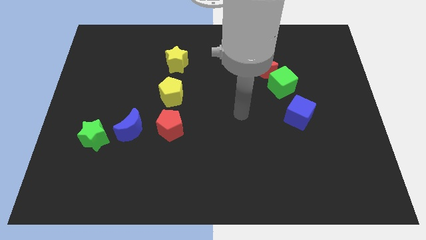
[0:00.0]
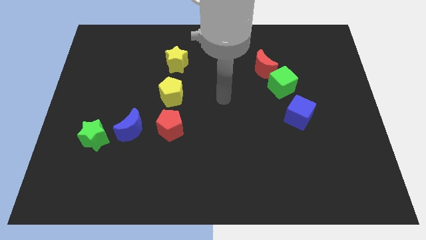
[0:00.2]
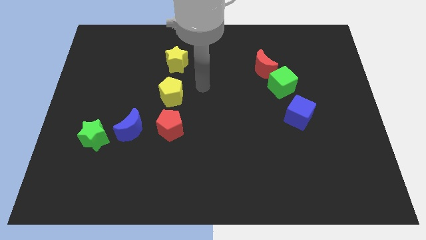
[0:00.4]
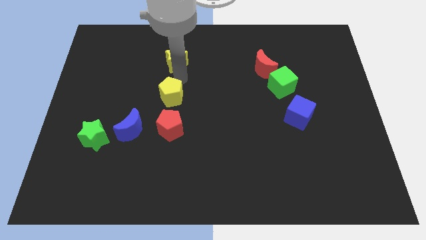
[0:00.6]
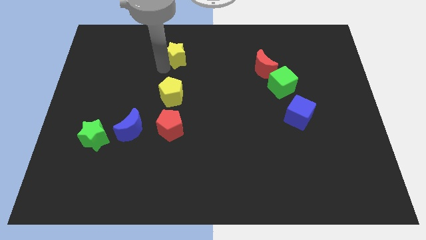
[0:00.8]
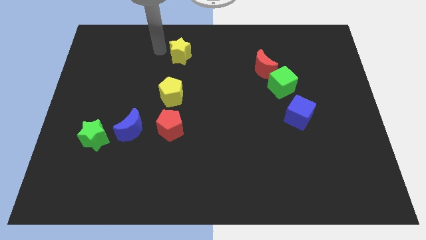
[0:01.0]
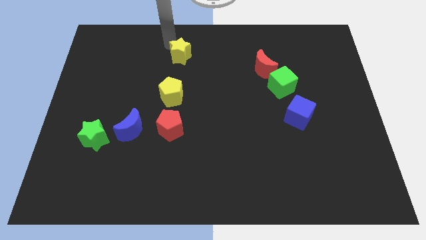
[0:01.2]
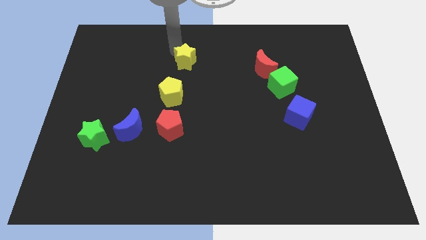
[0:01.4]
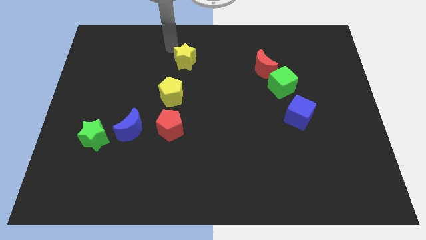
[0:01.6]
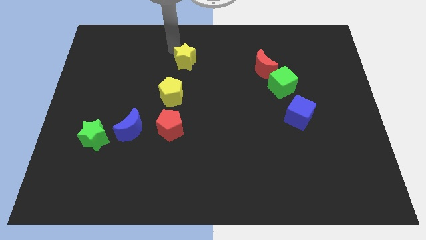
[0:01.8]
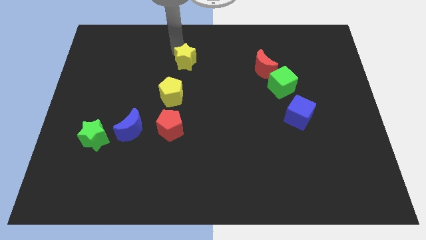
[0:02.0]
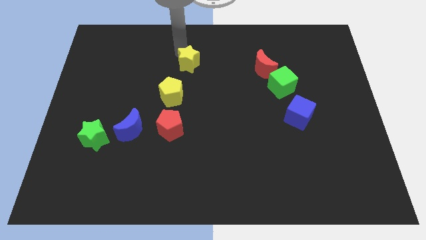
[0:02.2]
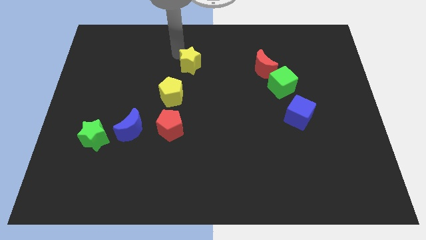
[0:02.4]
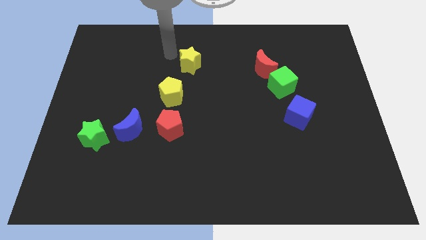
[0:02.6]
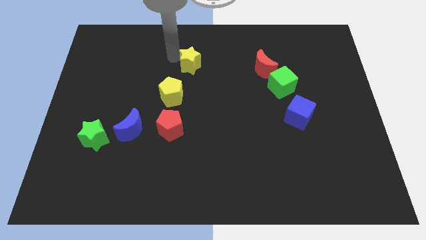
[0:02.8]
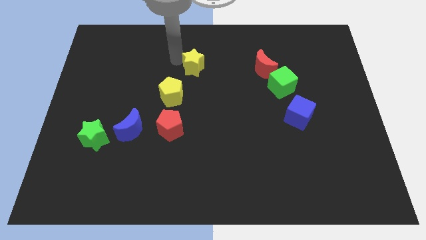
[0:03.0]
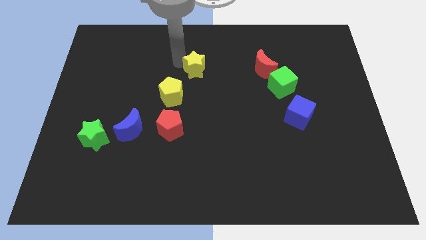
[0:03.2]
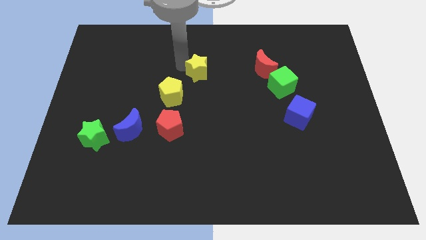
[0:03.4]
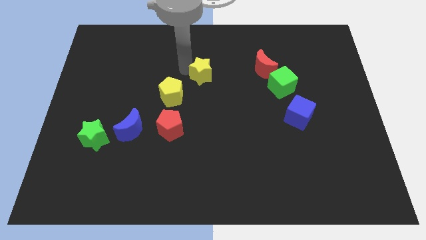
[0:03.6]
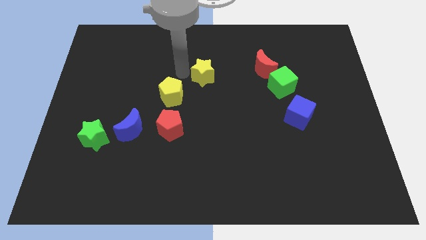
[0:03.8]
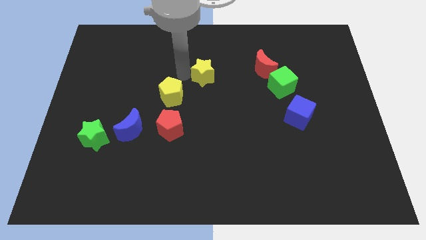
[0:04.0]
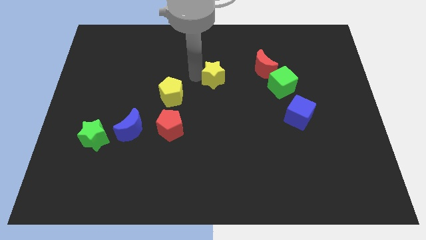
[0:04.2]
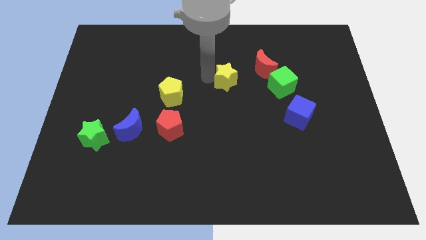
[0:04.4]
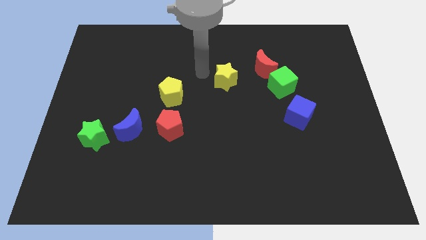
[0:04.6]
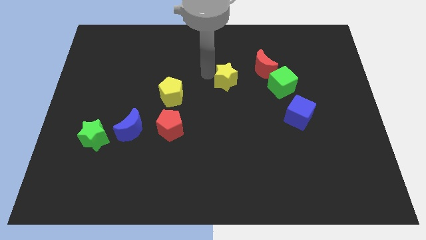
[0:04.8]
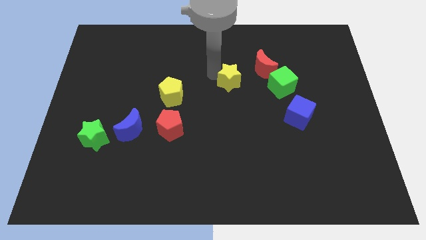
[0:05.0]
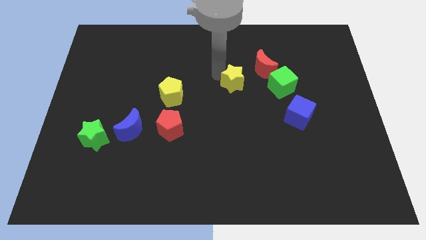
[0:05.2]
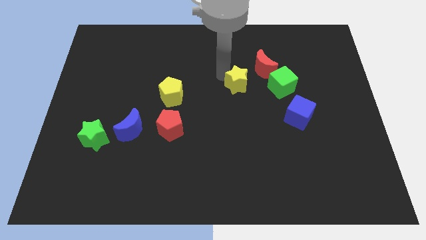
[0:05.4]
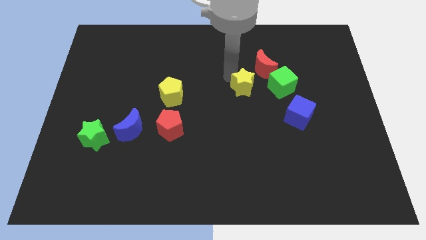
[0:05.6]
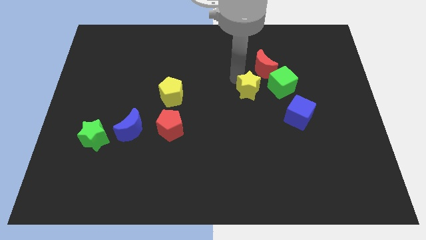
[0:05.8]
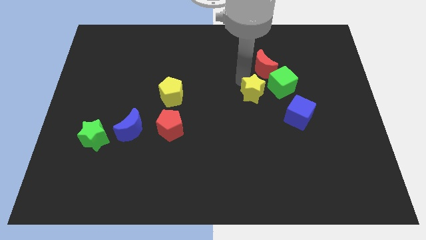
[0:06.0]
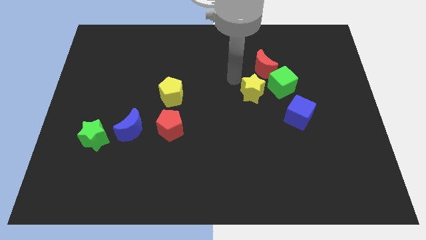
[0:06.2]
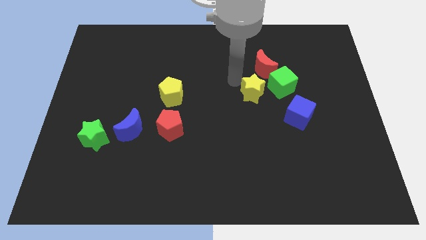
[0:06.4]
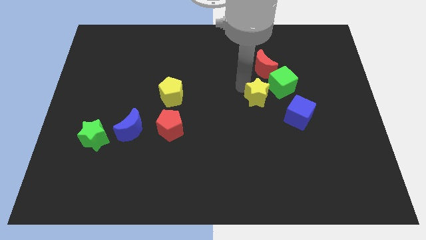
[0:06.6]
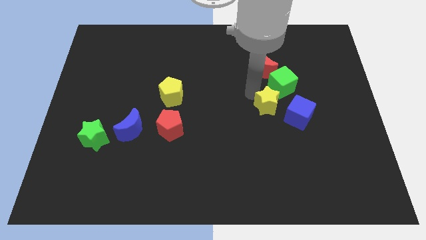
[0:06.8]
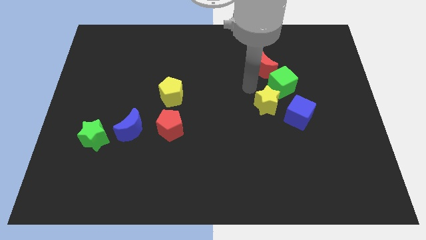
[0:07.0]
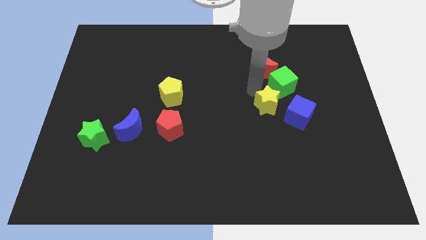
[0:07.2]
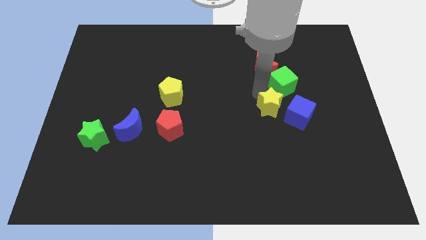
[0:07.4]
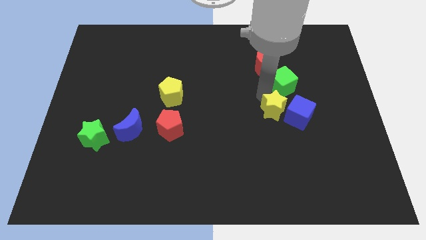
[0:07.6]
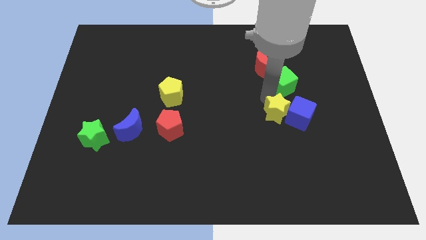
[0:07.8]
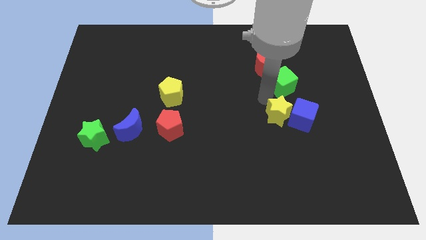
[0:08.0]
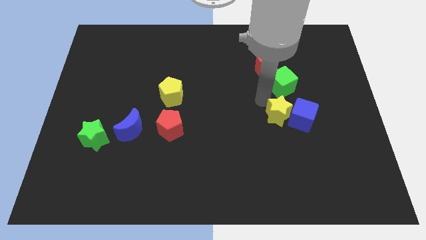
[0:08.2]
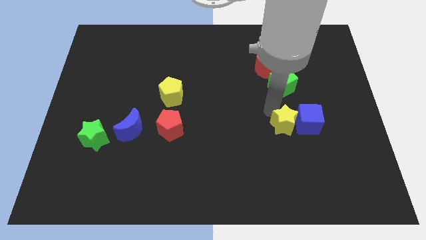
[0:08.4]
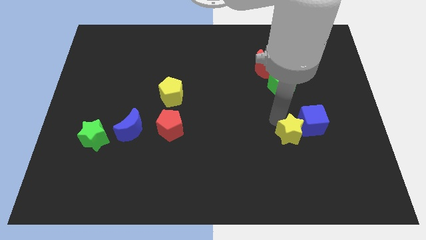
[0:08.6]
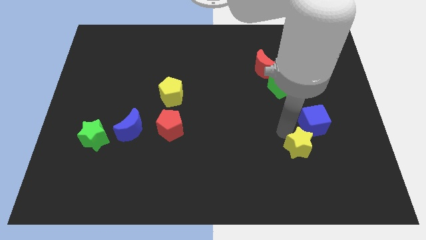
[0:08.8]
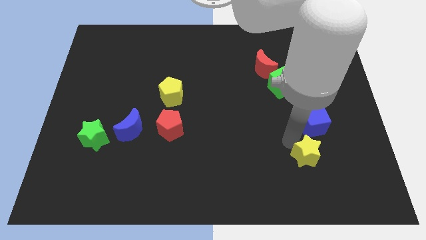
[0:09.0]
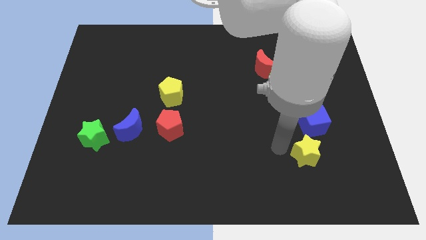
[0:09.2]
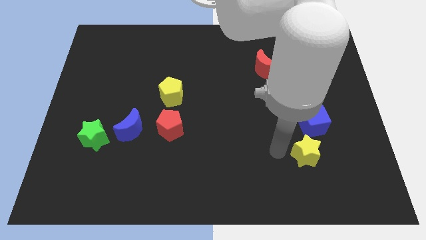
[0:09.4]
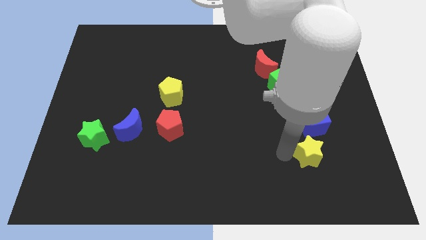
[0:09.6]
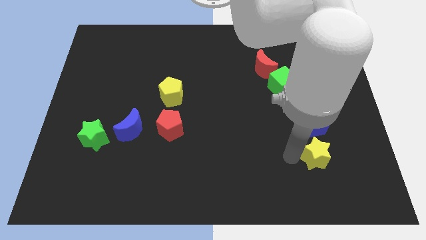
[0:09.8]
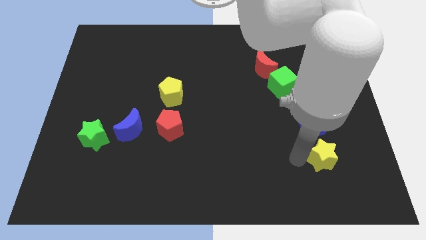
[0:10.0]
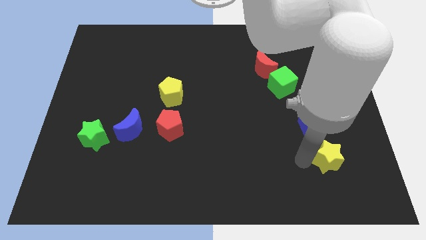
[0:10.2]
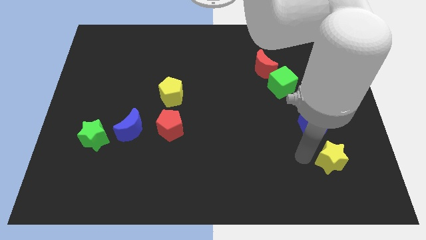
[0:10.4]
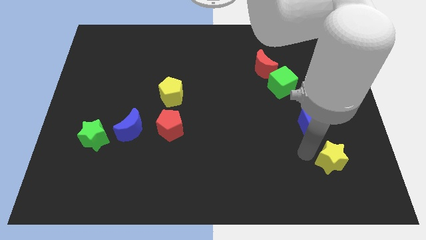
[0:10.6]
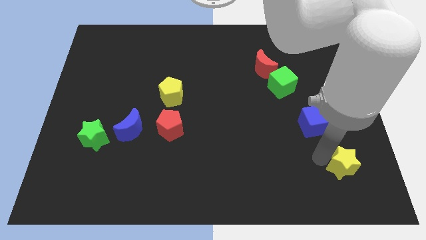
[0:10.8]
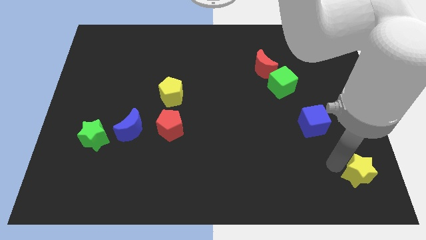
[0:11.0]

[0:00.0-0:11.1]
move the yellow star to the bottom right corner

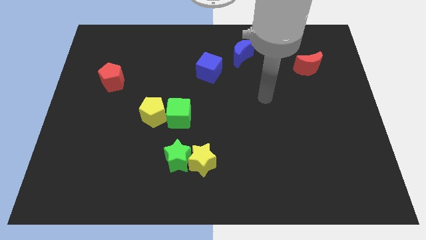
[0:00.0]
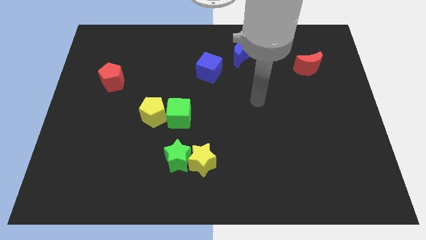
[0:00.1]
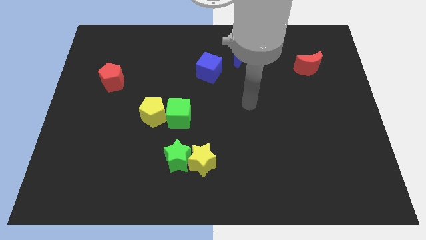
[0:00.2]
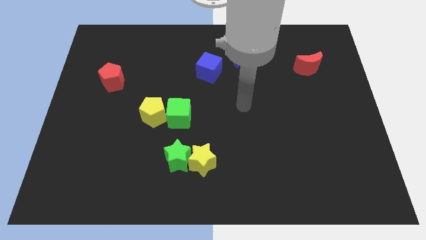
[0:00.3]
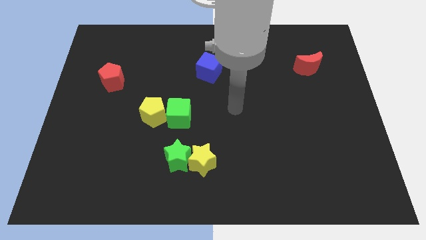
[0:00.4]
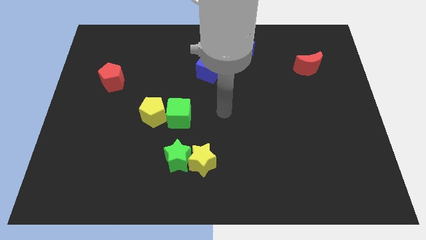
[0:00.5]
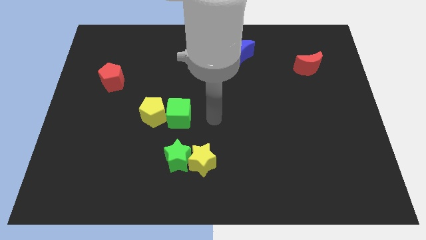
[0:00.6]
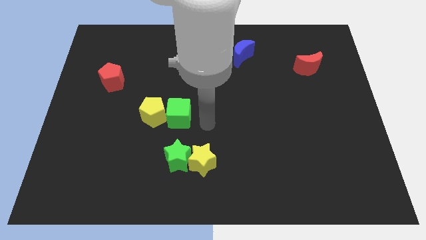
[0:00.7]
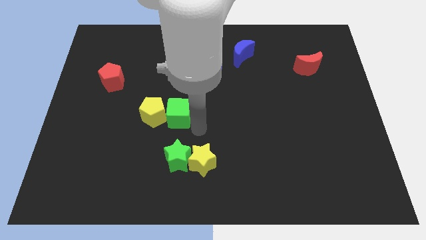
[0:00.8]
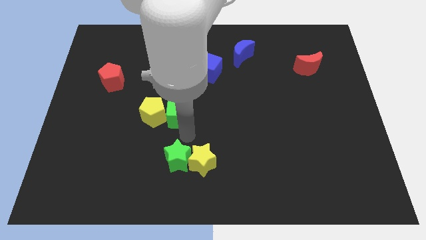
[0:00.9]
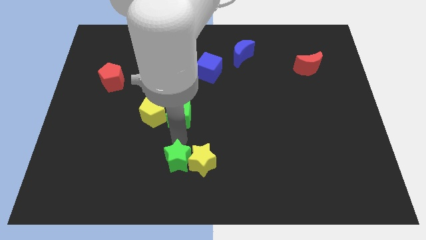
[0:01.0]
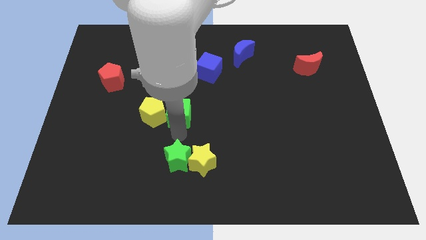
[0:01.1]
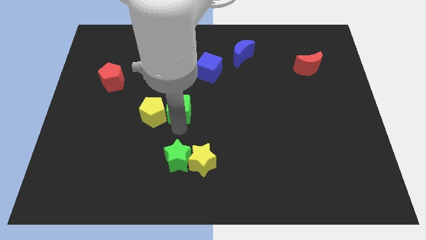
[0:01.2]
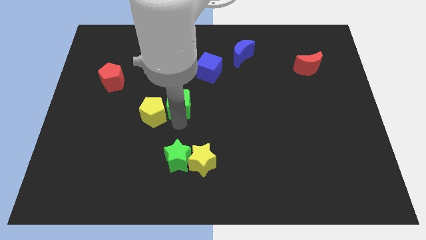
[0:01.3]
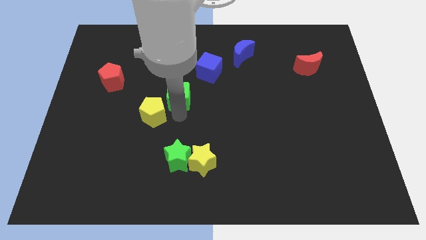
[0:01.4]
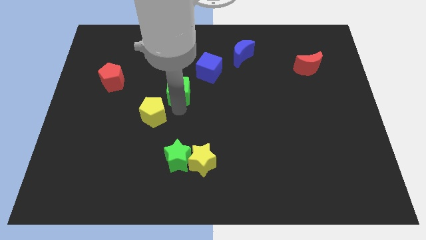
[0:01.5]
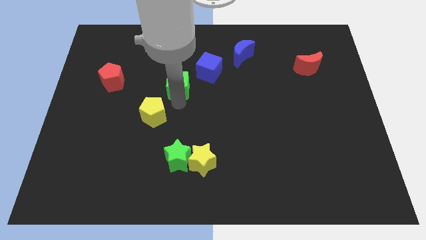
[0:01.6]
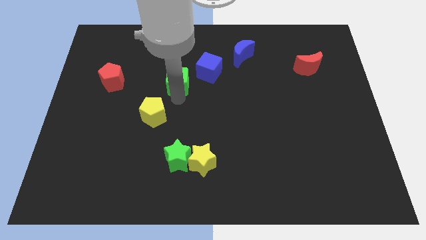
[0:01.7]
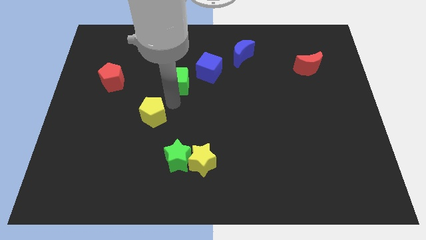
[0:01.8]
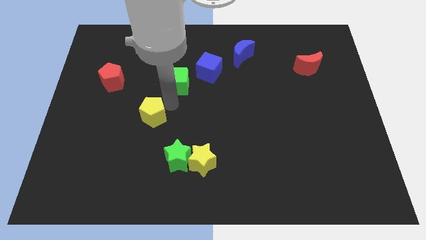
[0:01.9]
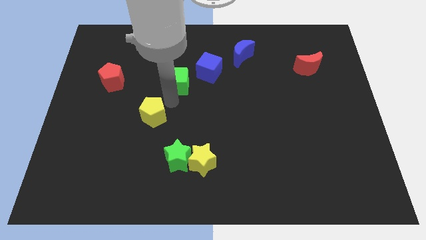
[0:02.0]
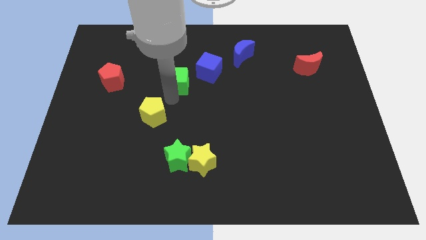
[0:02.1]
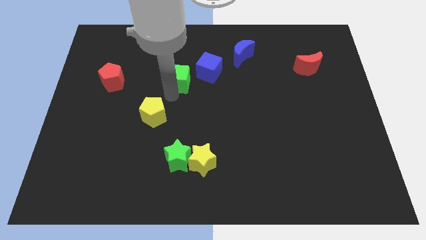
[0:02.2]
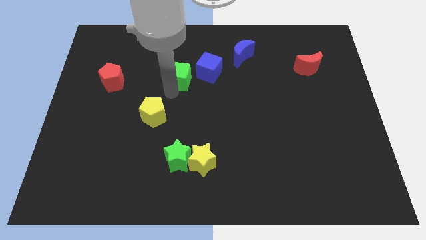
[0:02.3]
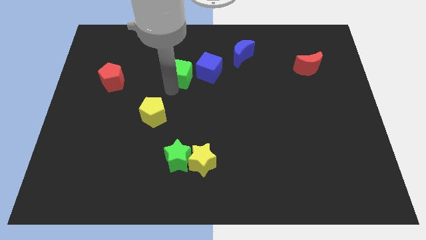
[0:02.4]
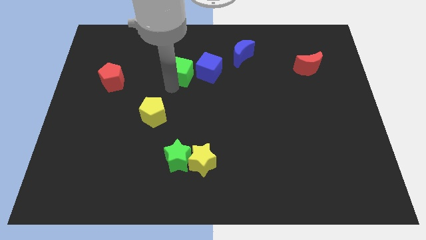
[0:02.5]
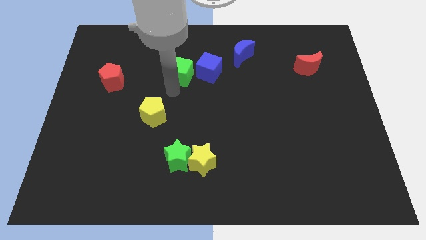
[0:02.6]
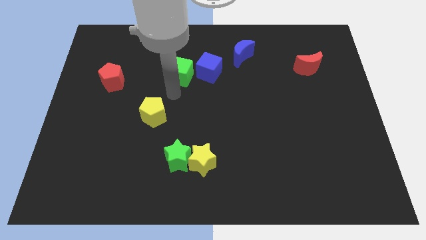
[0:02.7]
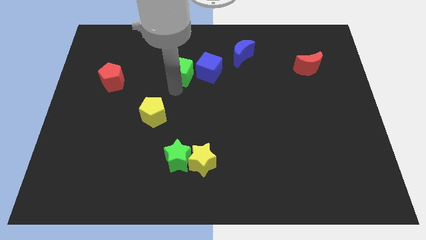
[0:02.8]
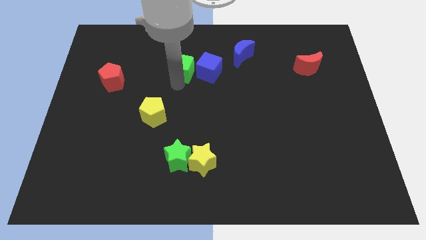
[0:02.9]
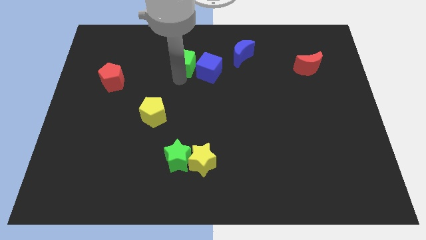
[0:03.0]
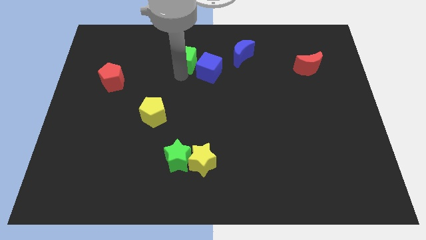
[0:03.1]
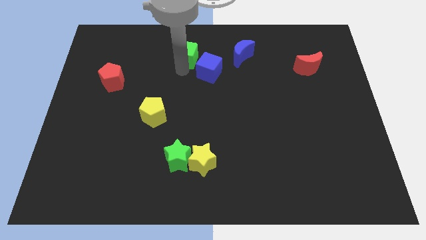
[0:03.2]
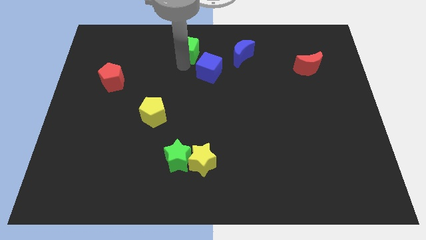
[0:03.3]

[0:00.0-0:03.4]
push the green cube to the top side
